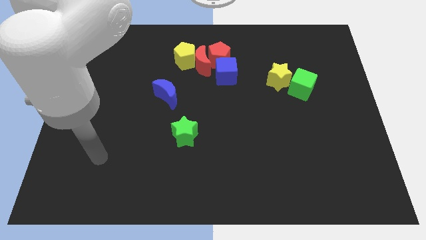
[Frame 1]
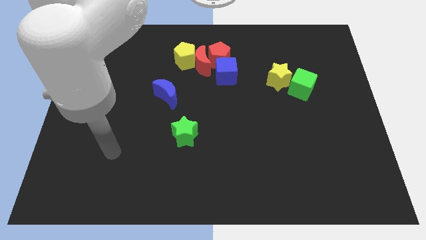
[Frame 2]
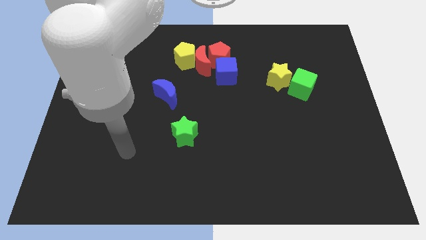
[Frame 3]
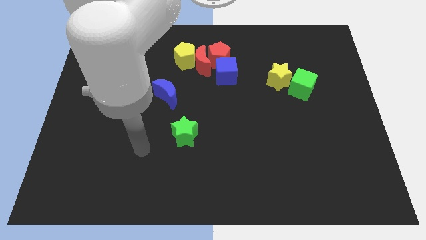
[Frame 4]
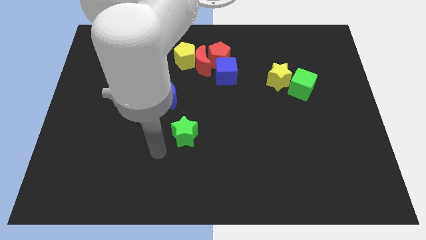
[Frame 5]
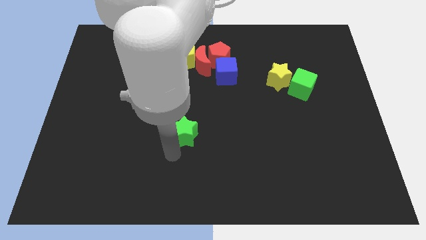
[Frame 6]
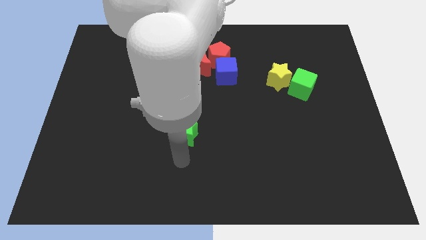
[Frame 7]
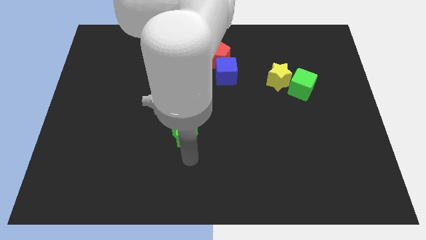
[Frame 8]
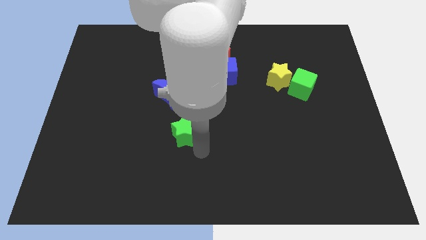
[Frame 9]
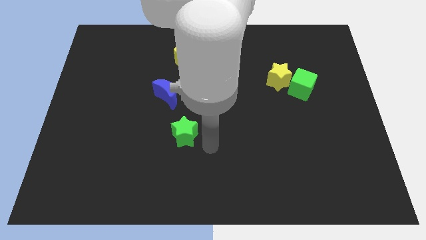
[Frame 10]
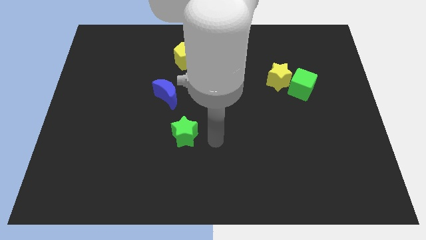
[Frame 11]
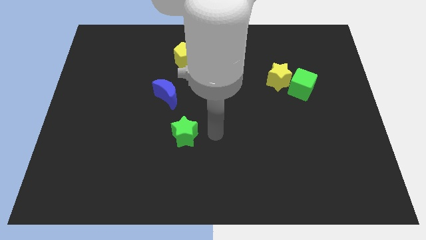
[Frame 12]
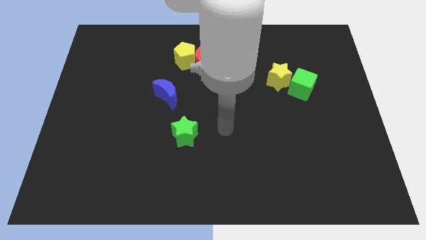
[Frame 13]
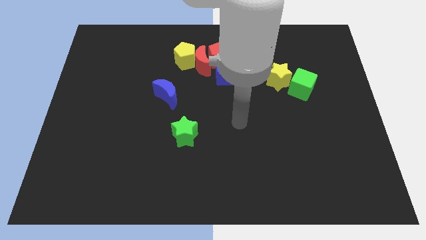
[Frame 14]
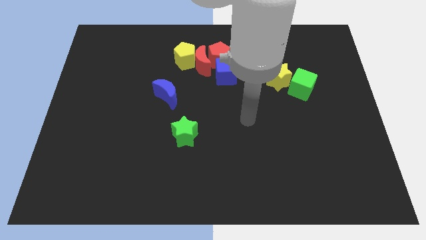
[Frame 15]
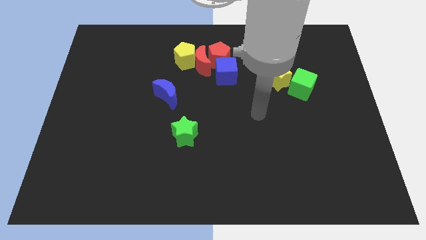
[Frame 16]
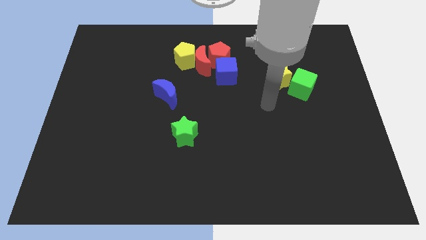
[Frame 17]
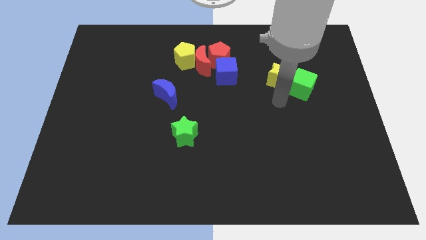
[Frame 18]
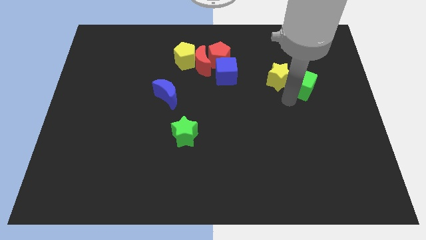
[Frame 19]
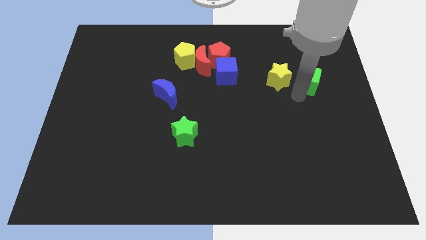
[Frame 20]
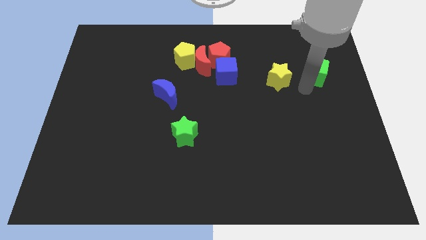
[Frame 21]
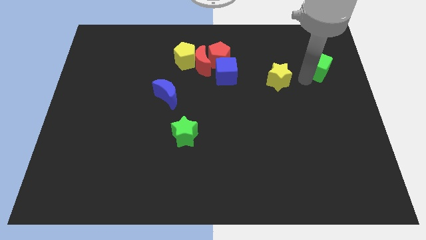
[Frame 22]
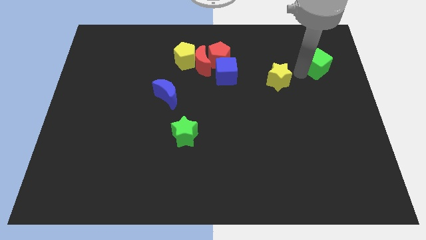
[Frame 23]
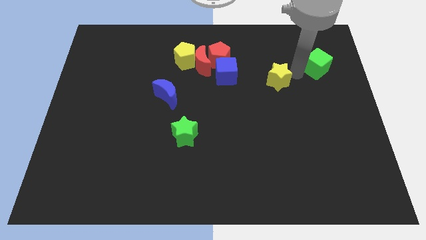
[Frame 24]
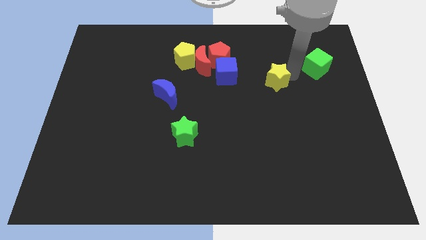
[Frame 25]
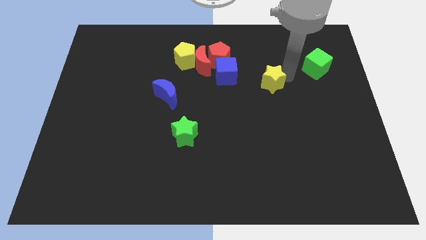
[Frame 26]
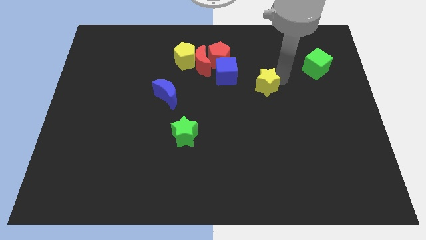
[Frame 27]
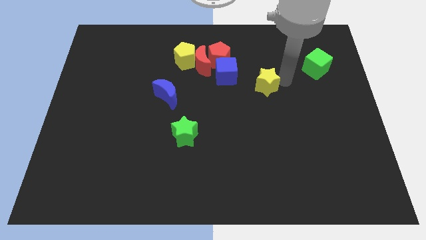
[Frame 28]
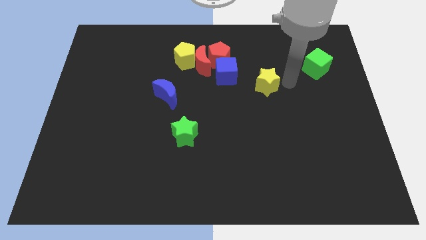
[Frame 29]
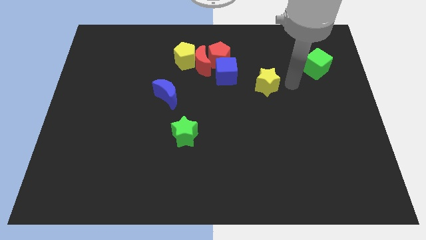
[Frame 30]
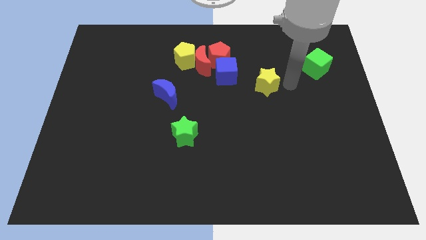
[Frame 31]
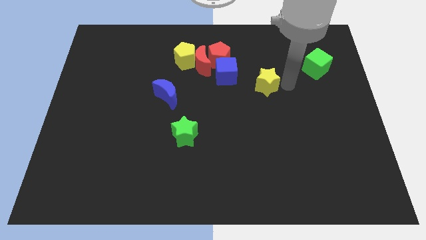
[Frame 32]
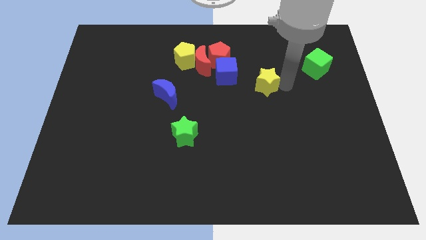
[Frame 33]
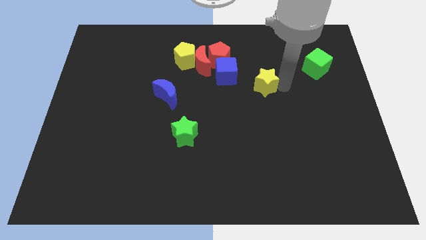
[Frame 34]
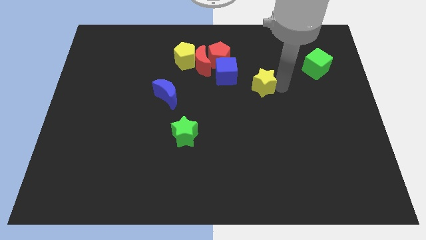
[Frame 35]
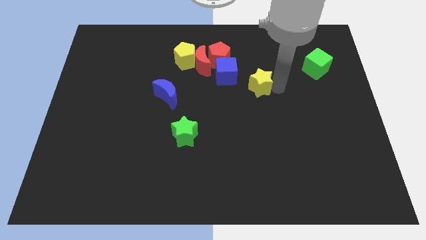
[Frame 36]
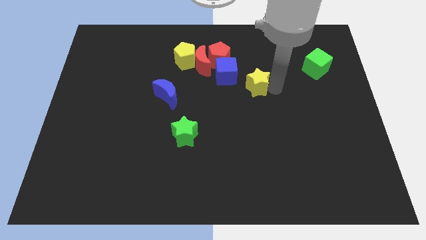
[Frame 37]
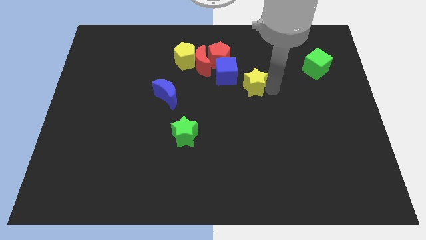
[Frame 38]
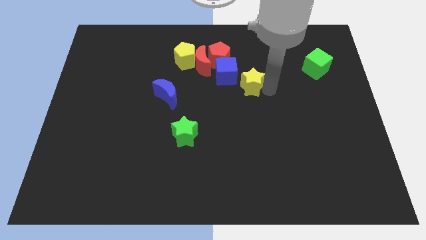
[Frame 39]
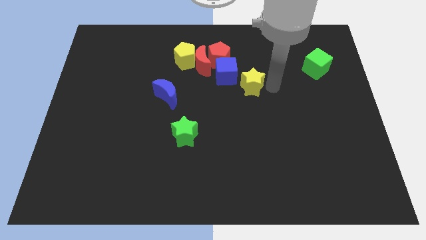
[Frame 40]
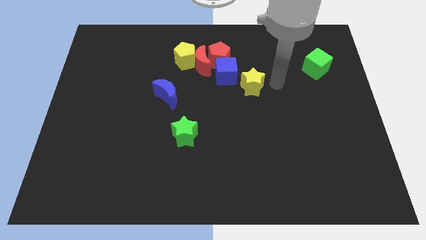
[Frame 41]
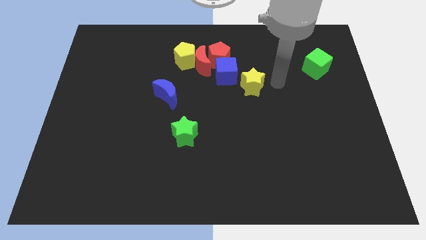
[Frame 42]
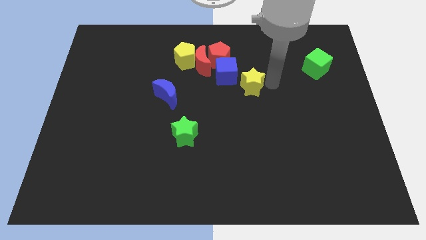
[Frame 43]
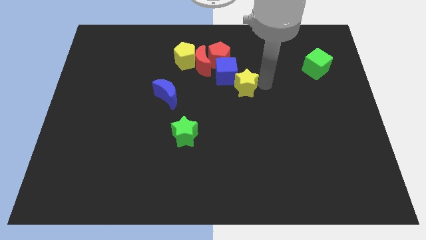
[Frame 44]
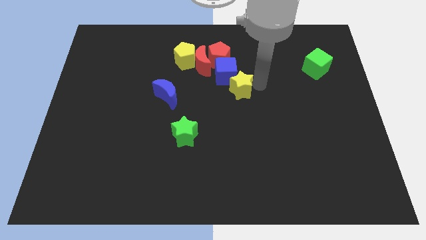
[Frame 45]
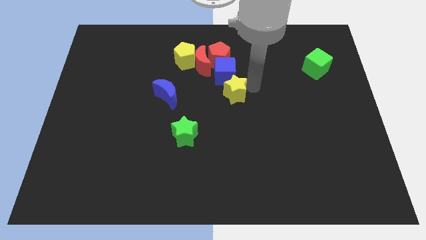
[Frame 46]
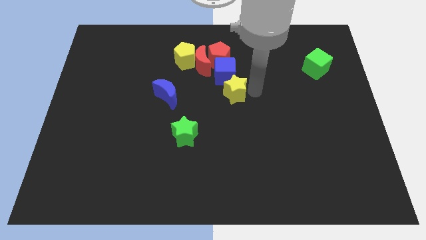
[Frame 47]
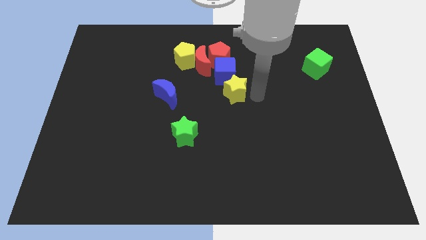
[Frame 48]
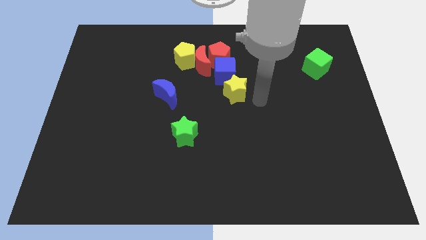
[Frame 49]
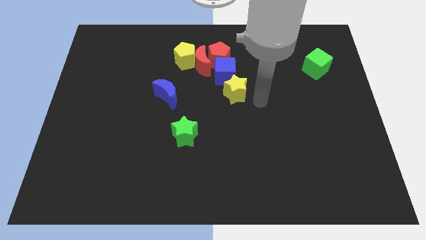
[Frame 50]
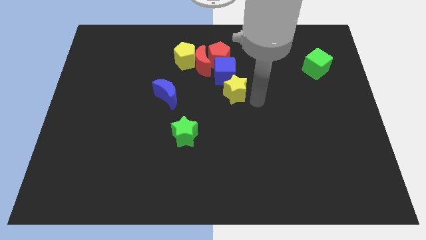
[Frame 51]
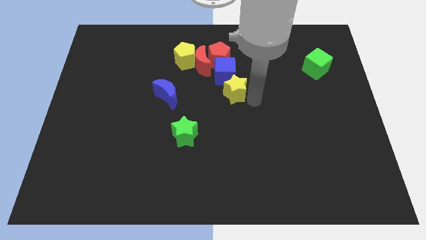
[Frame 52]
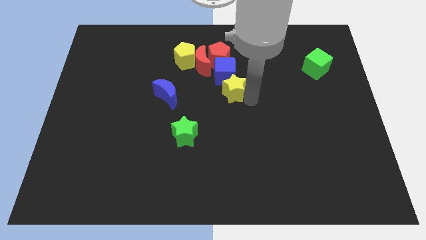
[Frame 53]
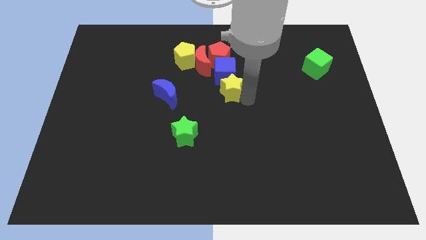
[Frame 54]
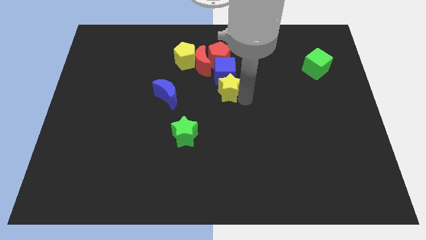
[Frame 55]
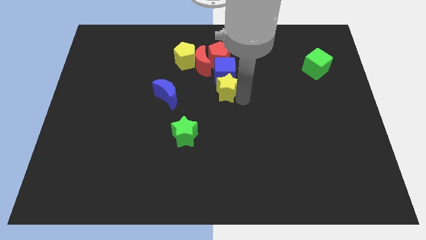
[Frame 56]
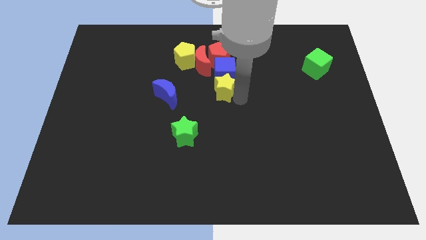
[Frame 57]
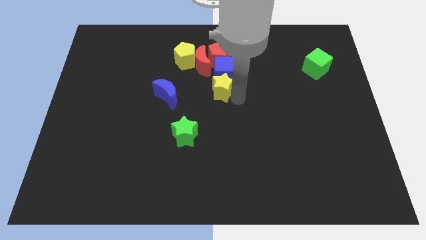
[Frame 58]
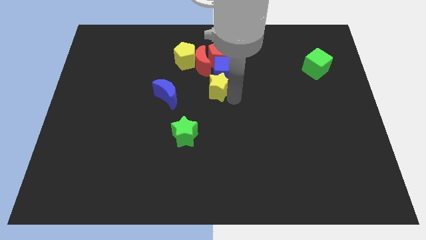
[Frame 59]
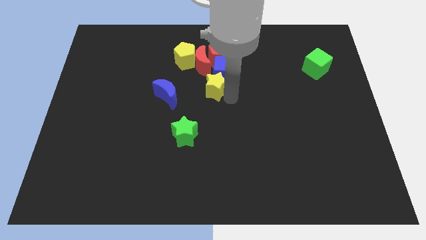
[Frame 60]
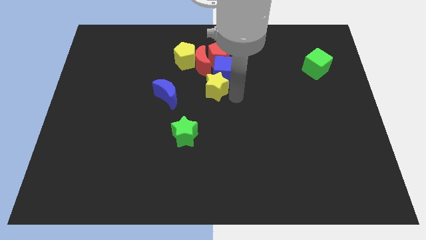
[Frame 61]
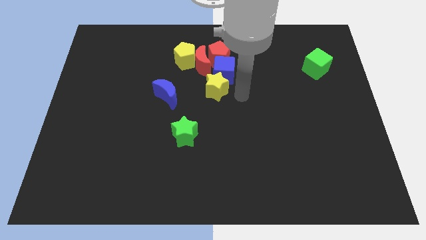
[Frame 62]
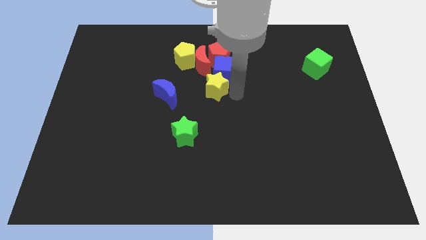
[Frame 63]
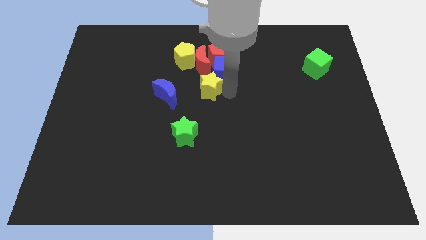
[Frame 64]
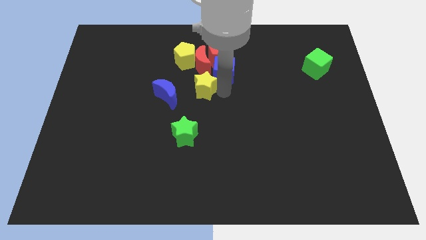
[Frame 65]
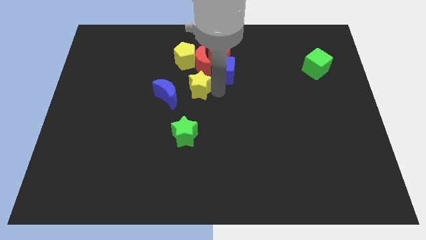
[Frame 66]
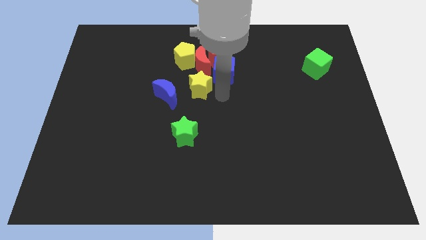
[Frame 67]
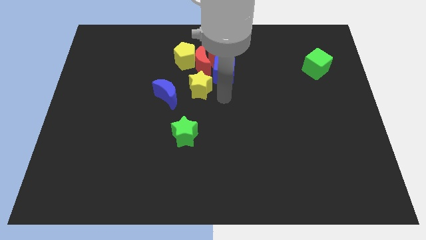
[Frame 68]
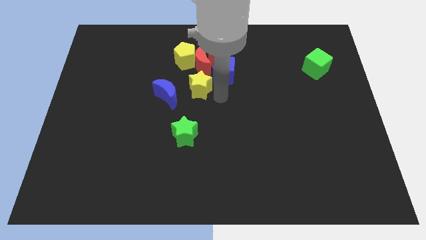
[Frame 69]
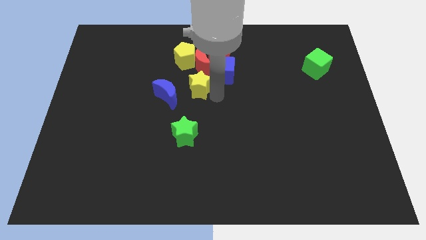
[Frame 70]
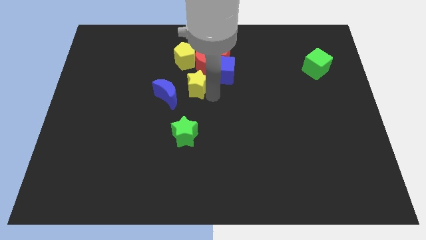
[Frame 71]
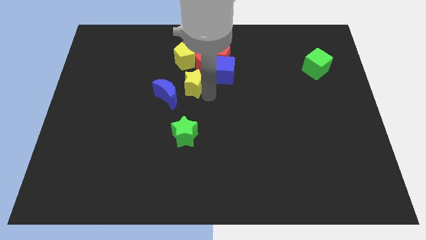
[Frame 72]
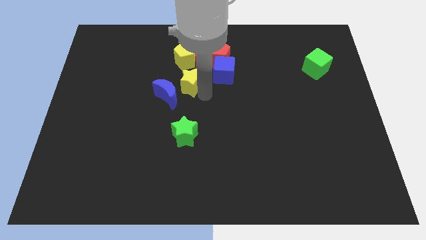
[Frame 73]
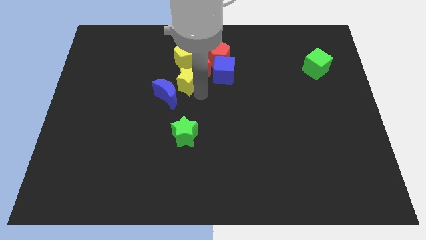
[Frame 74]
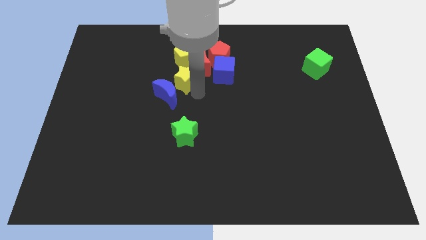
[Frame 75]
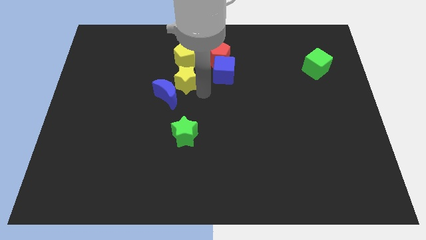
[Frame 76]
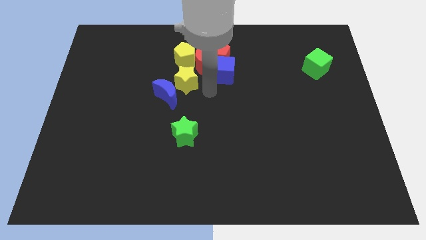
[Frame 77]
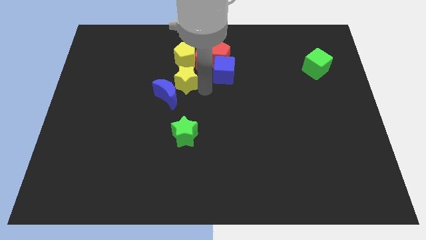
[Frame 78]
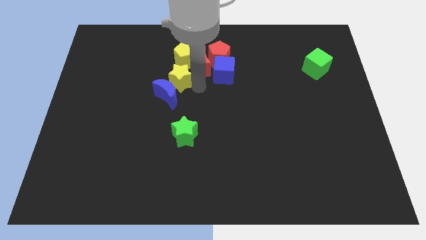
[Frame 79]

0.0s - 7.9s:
slide the yellow star to the bottom left side of the yellow pentagon

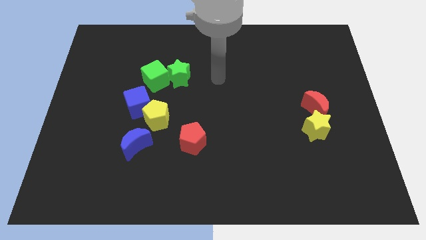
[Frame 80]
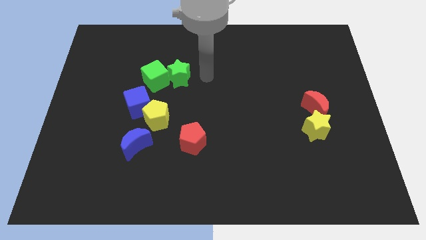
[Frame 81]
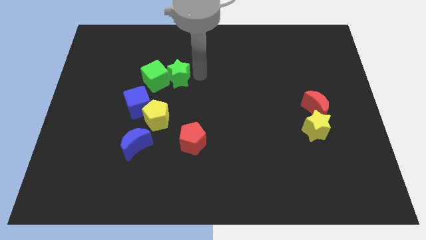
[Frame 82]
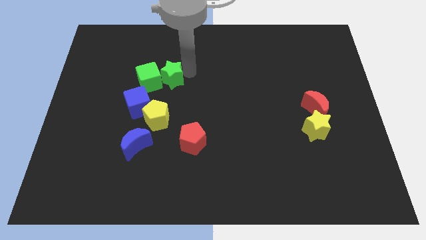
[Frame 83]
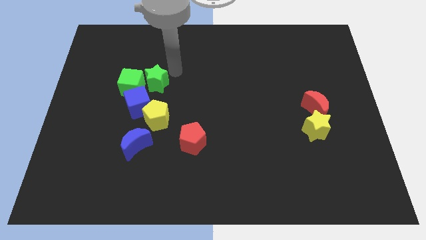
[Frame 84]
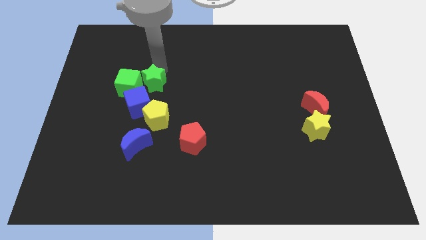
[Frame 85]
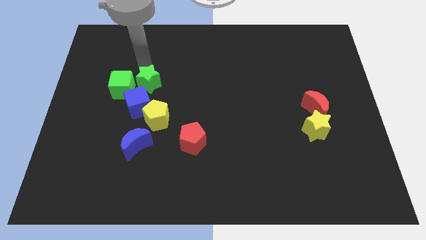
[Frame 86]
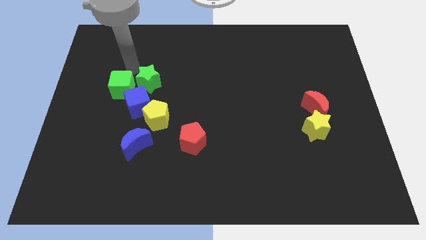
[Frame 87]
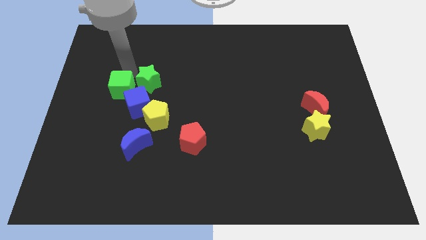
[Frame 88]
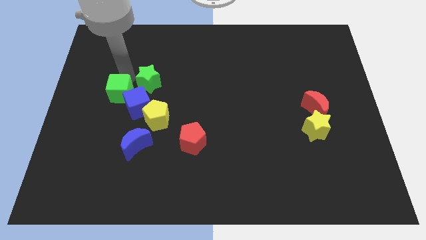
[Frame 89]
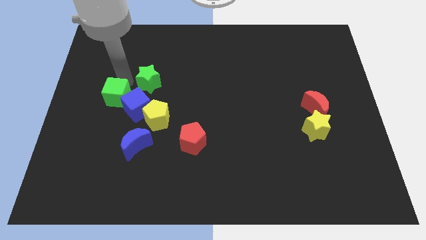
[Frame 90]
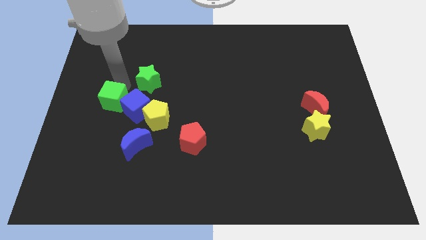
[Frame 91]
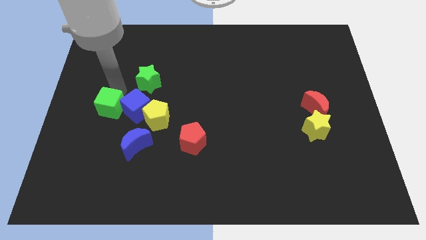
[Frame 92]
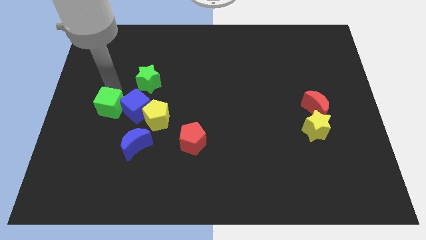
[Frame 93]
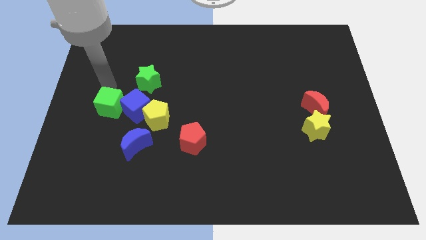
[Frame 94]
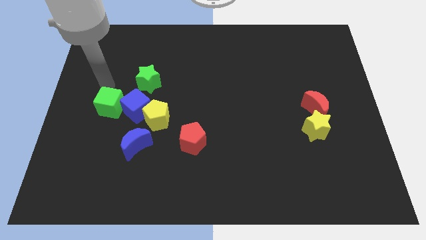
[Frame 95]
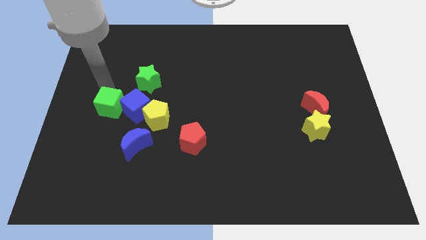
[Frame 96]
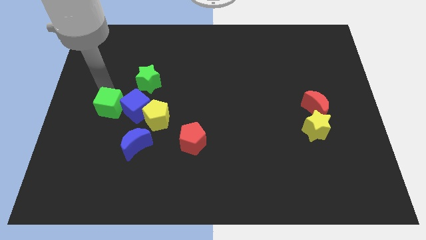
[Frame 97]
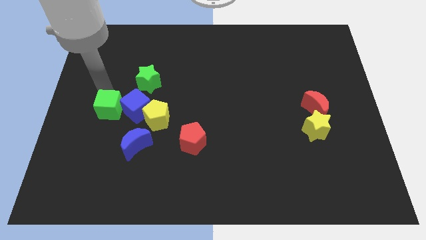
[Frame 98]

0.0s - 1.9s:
slide the green cube to the top left of the blue moon
